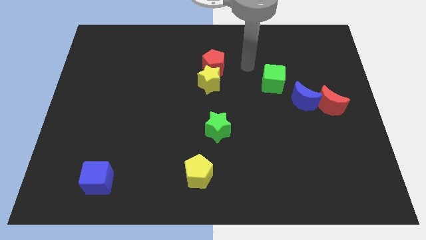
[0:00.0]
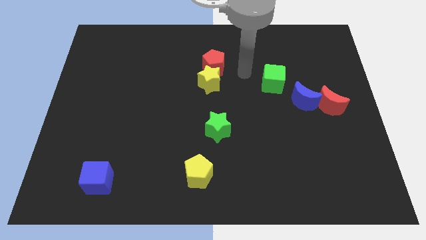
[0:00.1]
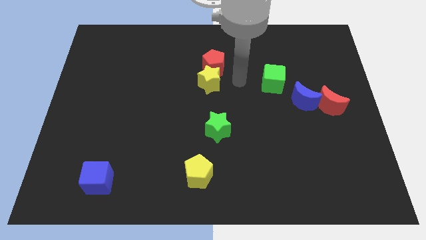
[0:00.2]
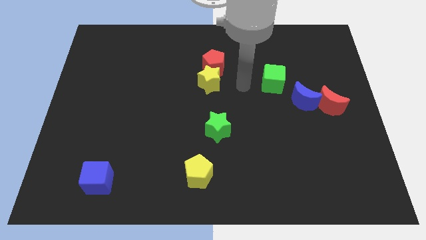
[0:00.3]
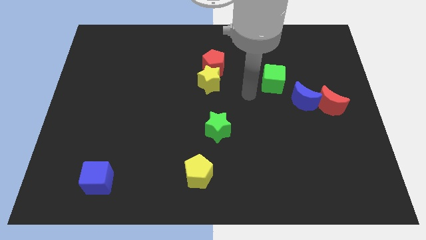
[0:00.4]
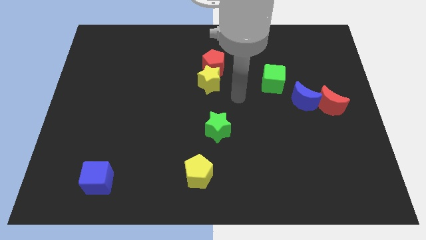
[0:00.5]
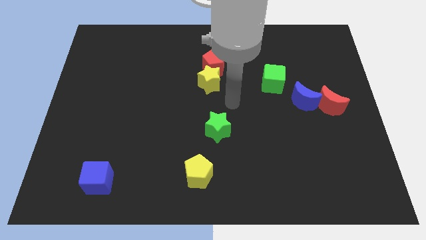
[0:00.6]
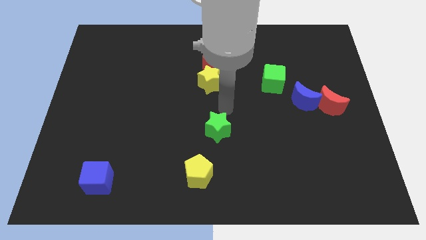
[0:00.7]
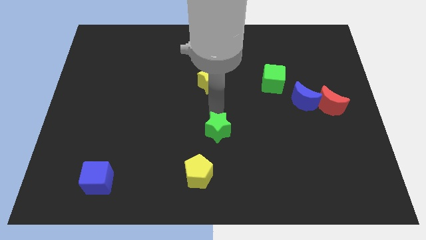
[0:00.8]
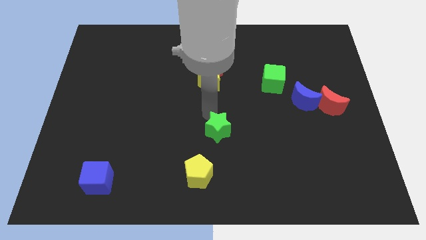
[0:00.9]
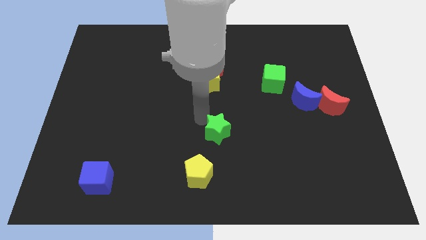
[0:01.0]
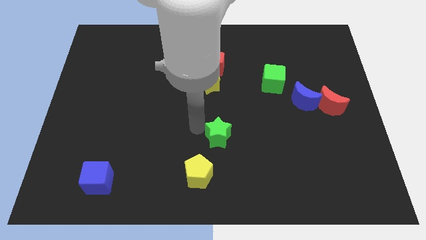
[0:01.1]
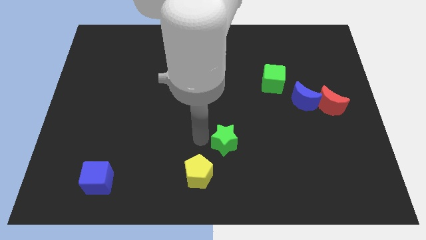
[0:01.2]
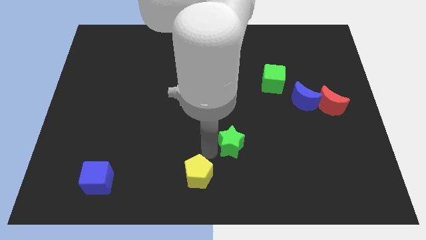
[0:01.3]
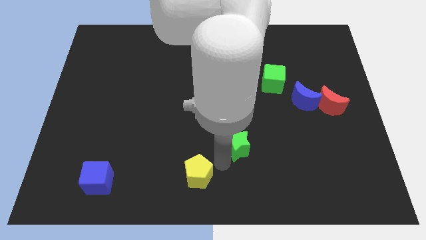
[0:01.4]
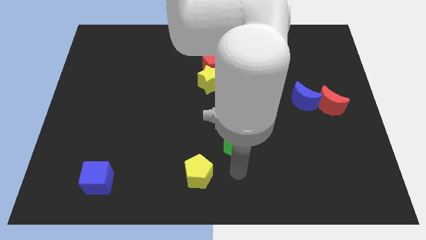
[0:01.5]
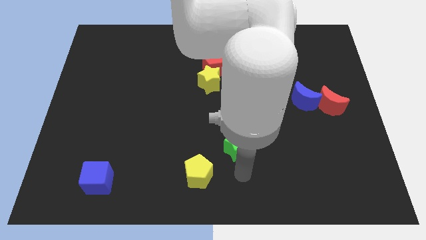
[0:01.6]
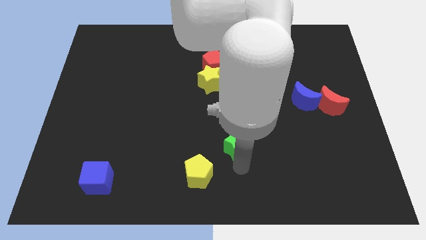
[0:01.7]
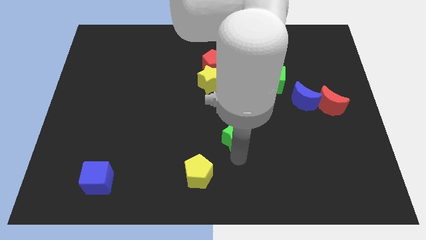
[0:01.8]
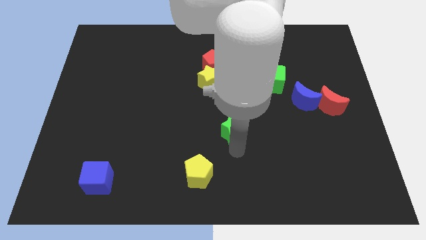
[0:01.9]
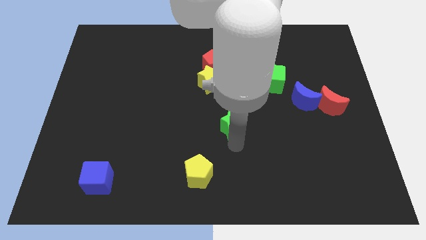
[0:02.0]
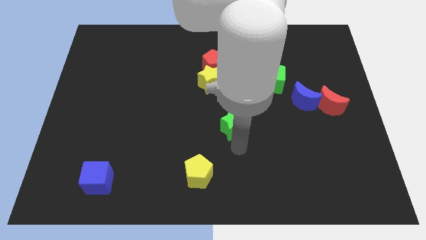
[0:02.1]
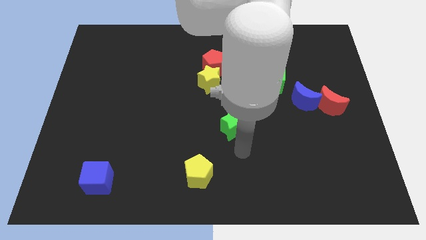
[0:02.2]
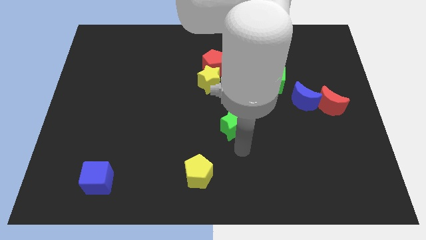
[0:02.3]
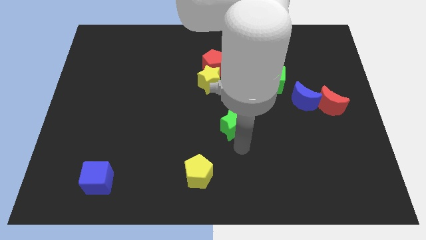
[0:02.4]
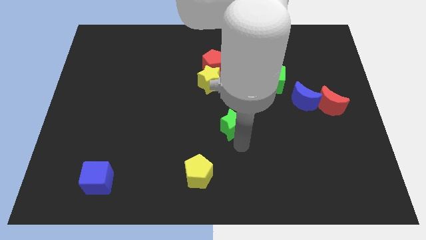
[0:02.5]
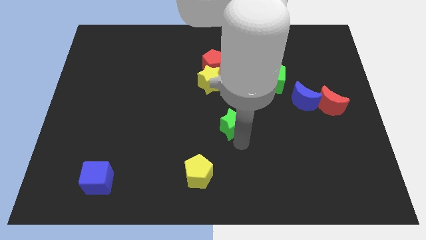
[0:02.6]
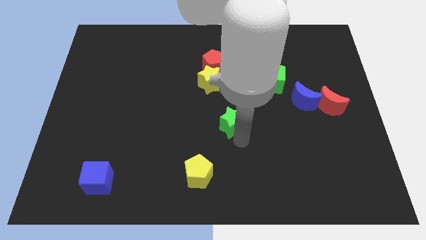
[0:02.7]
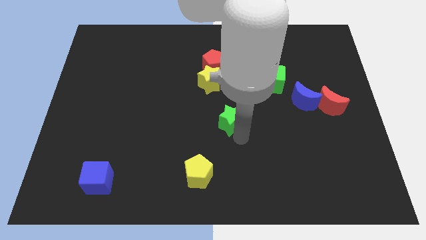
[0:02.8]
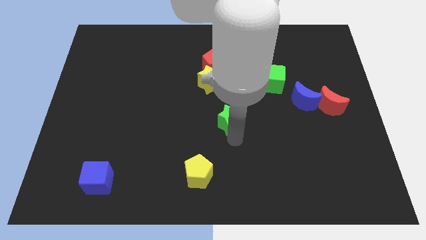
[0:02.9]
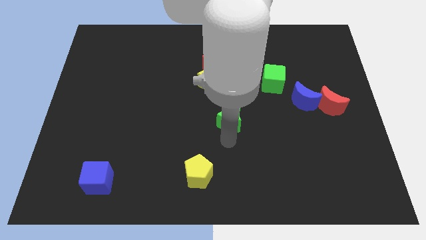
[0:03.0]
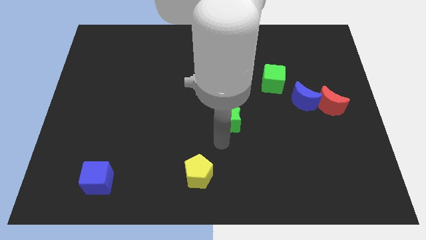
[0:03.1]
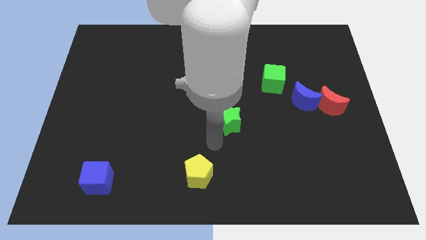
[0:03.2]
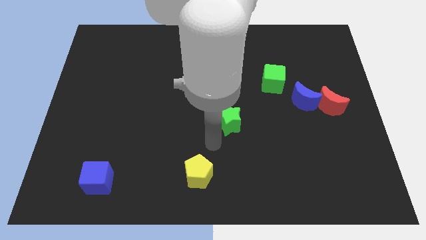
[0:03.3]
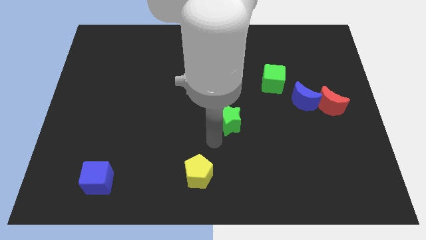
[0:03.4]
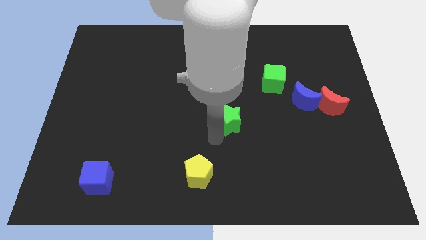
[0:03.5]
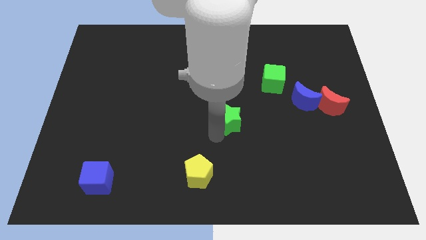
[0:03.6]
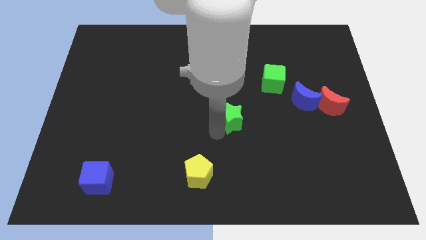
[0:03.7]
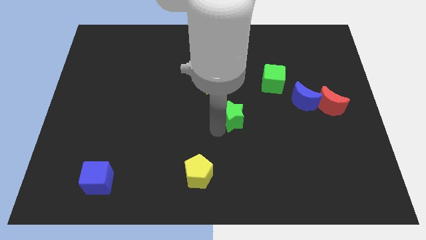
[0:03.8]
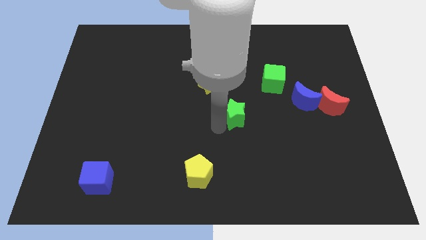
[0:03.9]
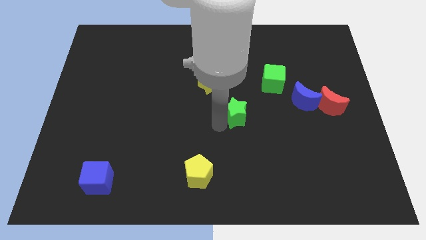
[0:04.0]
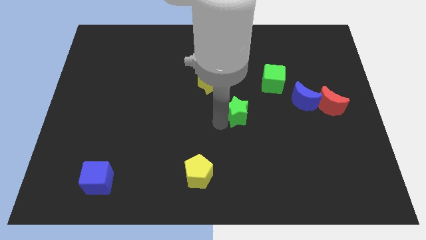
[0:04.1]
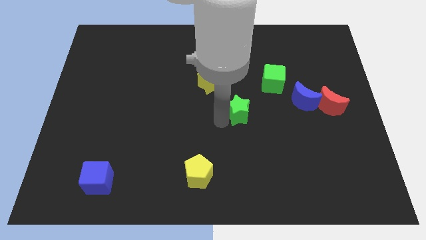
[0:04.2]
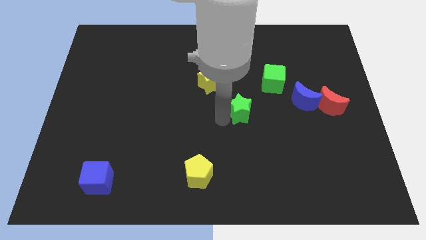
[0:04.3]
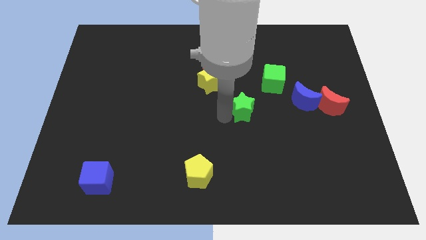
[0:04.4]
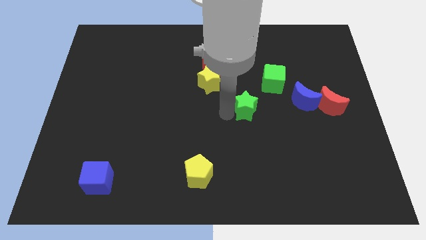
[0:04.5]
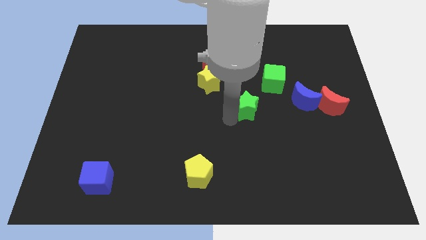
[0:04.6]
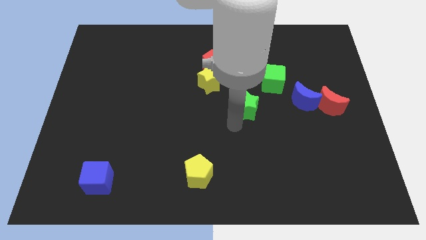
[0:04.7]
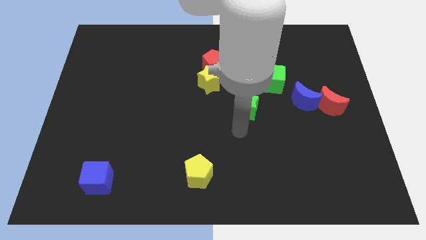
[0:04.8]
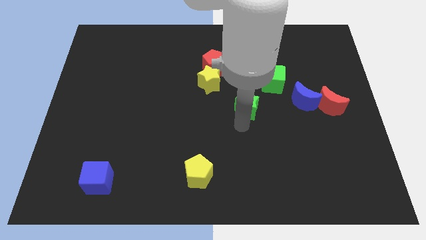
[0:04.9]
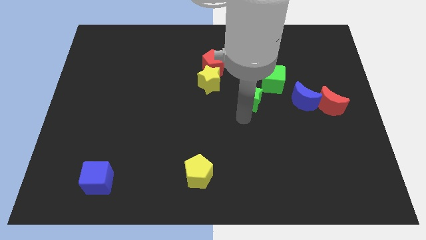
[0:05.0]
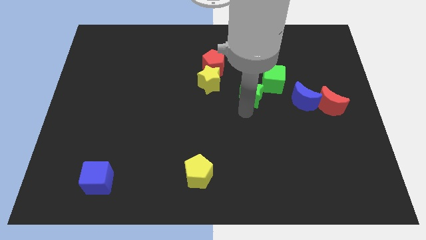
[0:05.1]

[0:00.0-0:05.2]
slide the green star just right of the yellow star

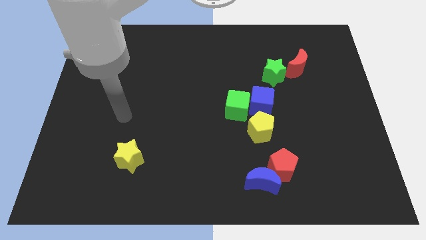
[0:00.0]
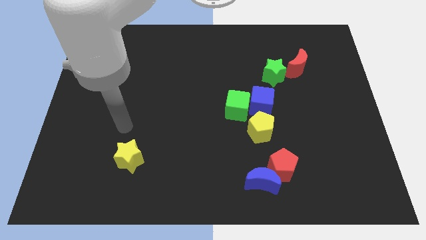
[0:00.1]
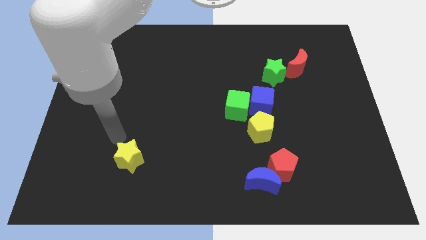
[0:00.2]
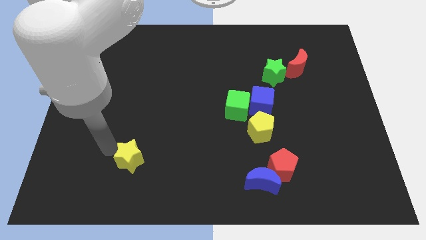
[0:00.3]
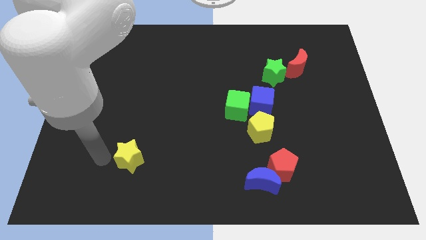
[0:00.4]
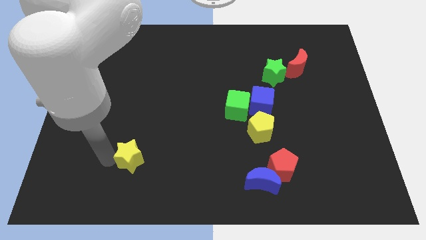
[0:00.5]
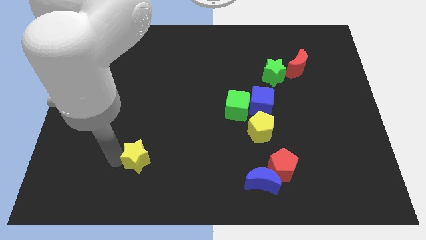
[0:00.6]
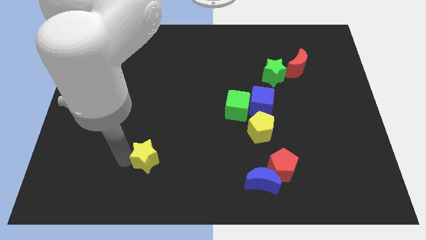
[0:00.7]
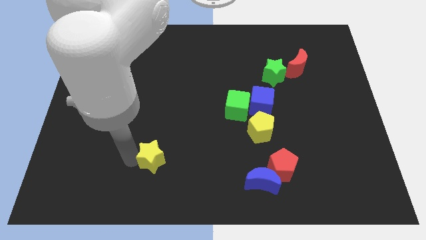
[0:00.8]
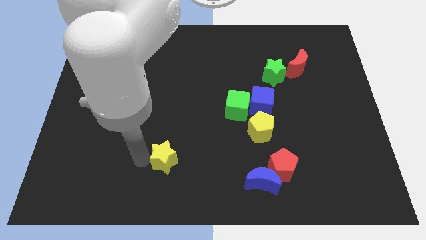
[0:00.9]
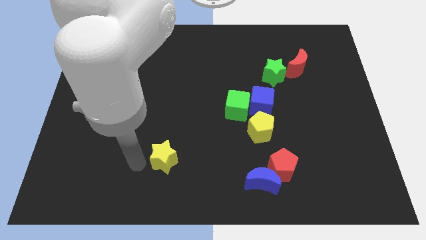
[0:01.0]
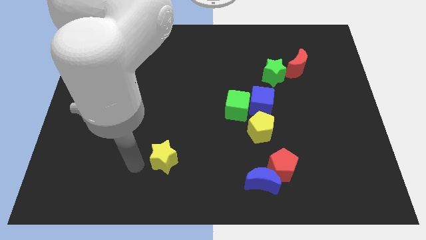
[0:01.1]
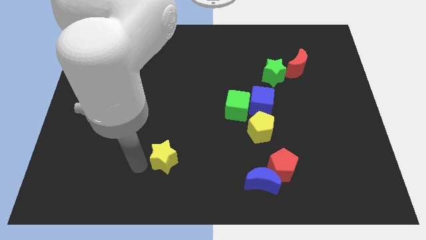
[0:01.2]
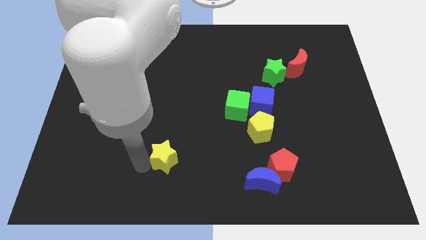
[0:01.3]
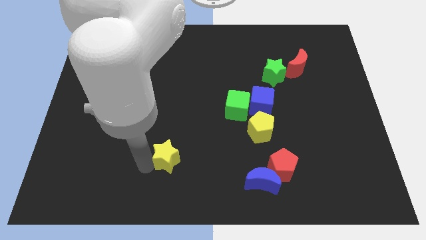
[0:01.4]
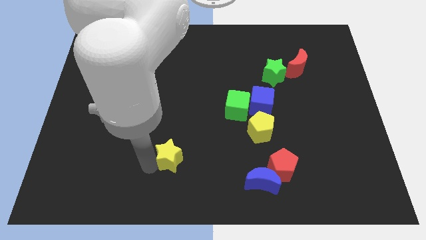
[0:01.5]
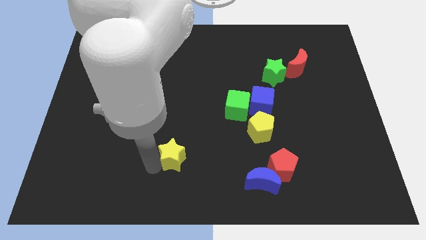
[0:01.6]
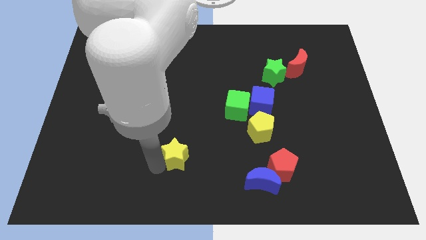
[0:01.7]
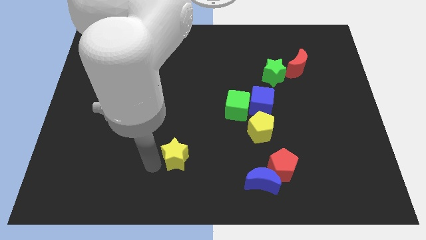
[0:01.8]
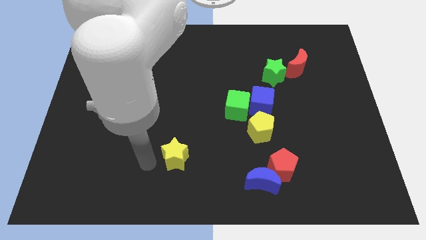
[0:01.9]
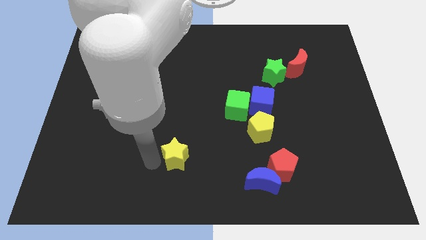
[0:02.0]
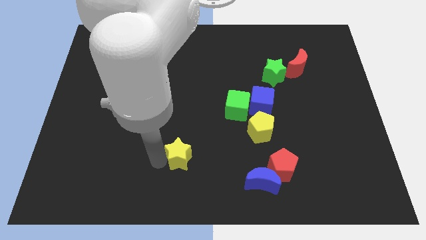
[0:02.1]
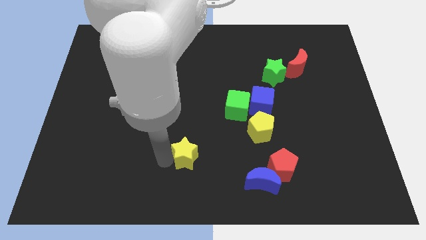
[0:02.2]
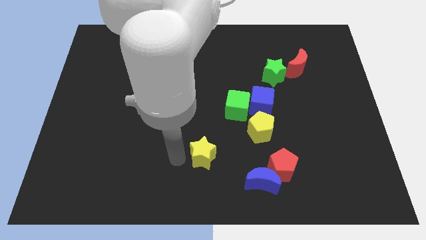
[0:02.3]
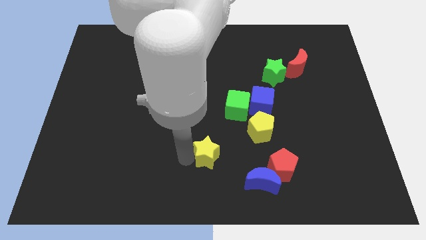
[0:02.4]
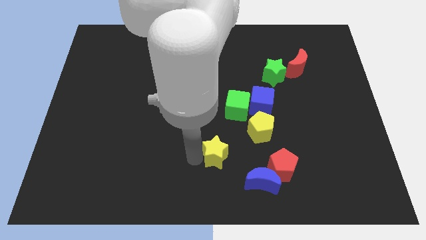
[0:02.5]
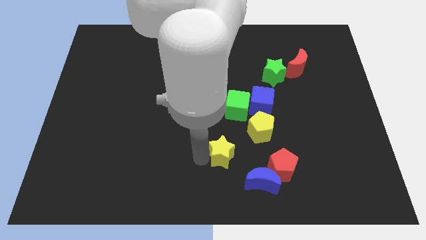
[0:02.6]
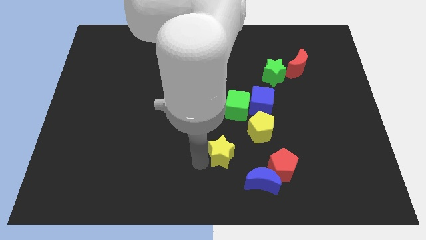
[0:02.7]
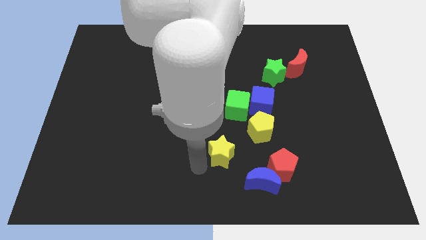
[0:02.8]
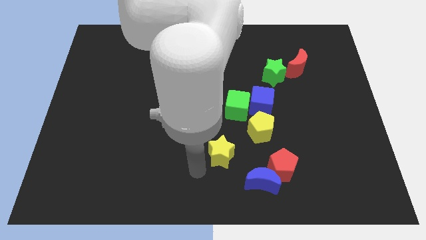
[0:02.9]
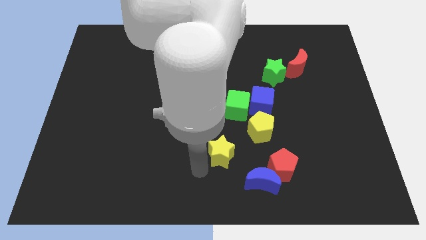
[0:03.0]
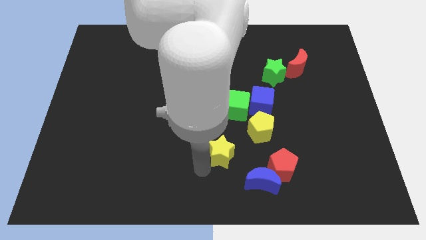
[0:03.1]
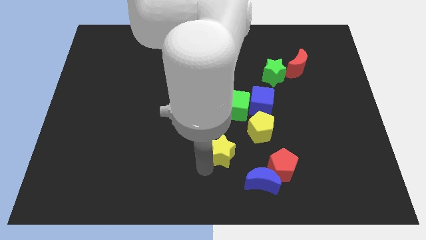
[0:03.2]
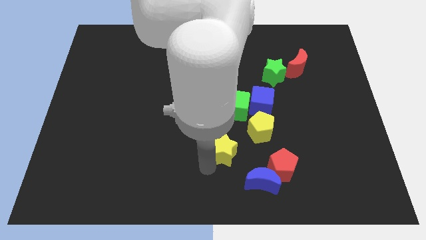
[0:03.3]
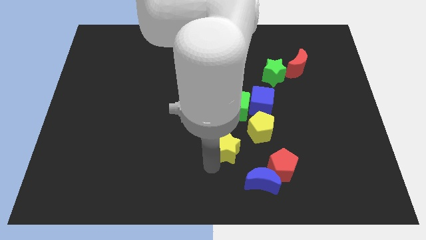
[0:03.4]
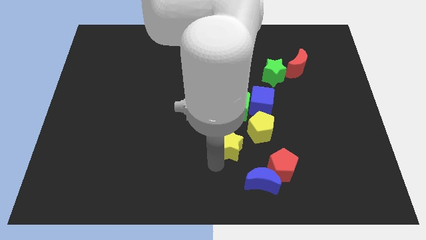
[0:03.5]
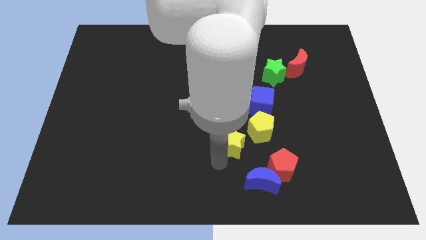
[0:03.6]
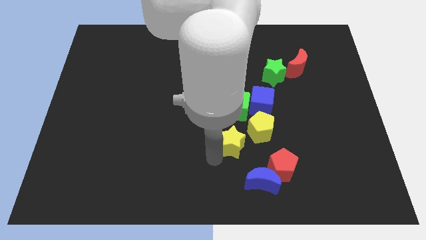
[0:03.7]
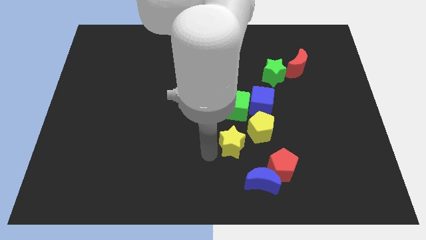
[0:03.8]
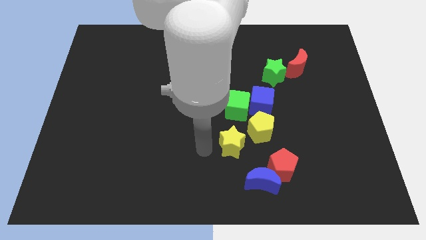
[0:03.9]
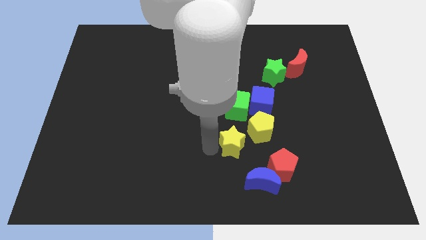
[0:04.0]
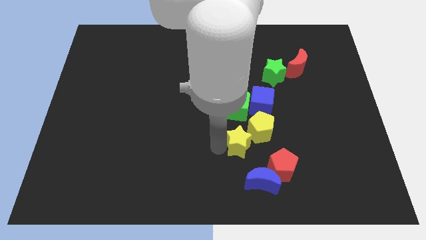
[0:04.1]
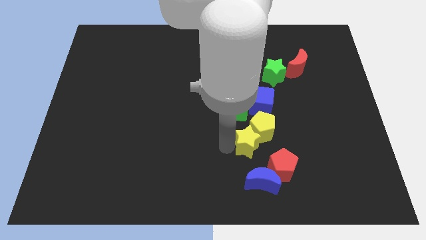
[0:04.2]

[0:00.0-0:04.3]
put the yellow star to the bottom of the blue cube
